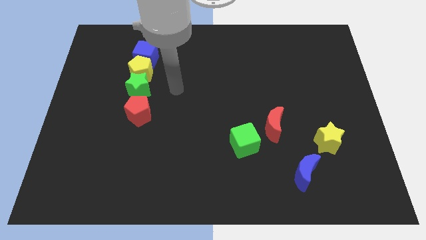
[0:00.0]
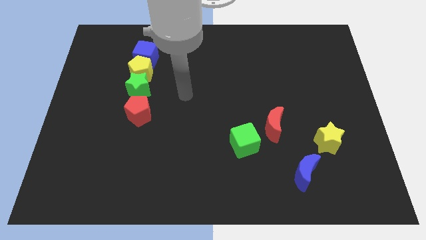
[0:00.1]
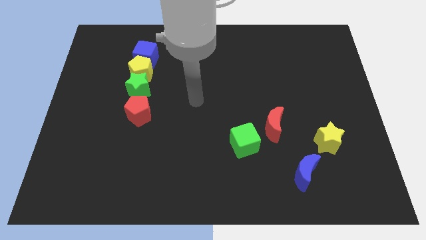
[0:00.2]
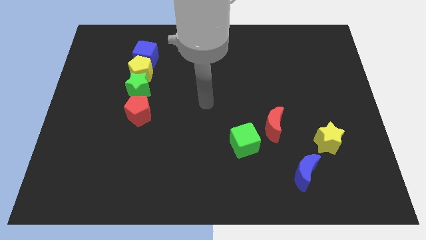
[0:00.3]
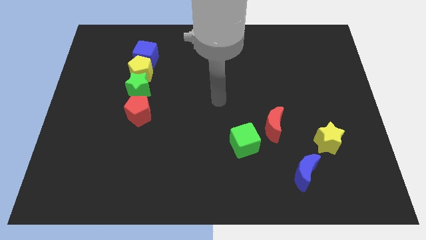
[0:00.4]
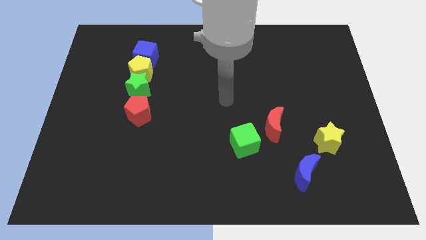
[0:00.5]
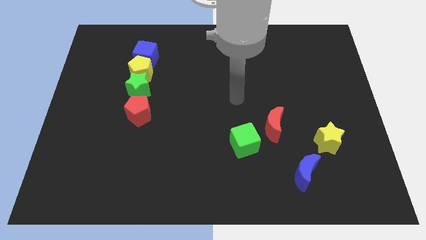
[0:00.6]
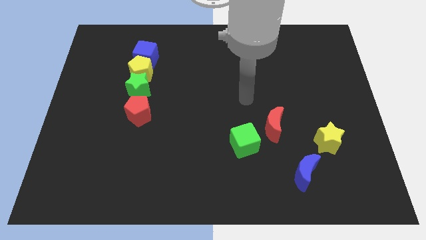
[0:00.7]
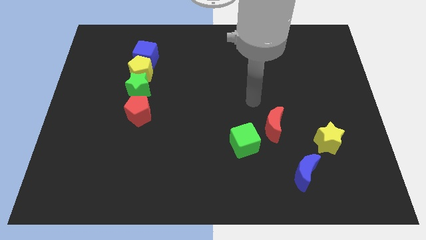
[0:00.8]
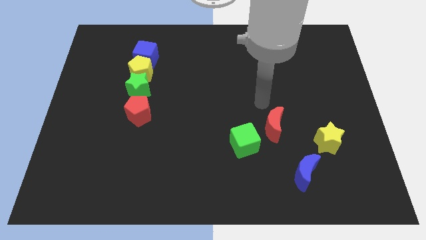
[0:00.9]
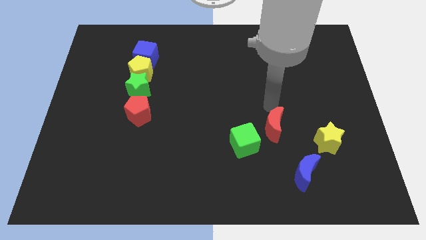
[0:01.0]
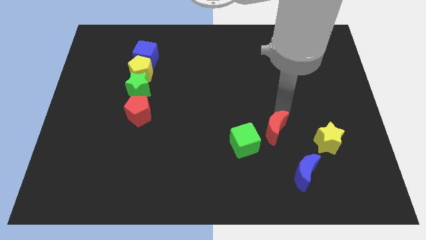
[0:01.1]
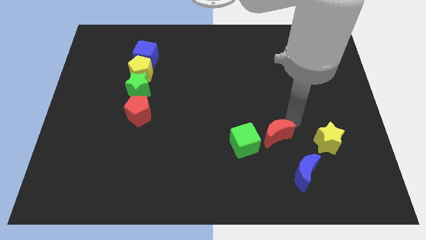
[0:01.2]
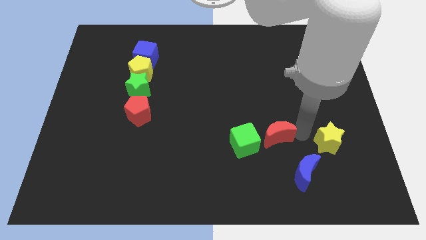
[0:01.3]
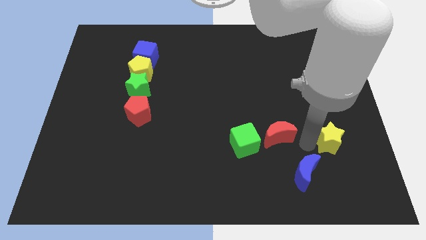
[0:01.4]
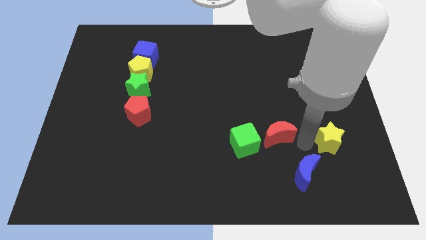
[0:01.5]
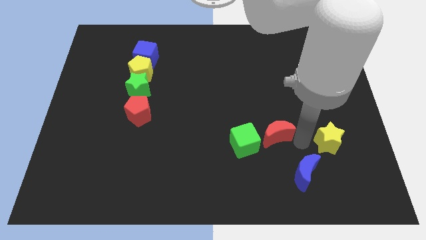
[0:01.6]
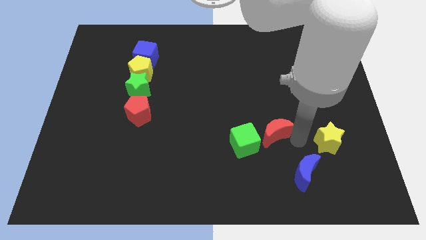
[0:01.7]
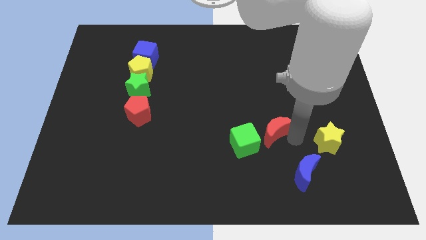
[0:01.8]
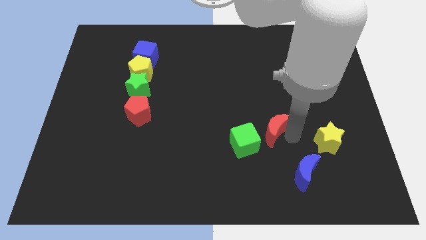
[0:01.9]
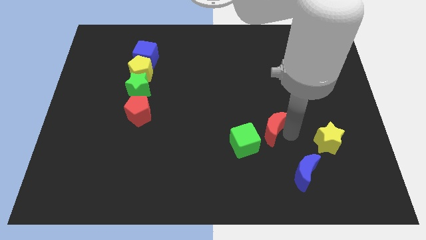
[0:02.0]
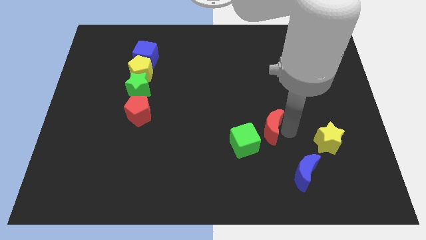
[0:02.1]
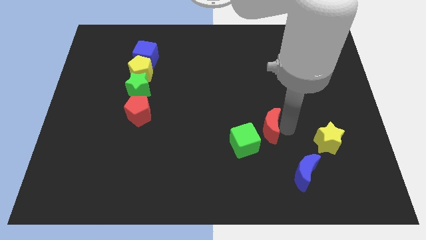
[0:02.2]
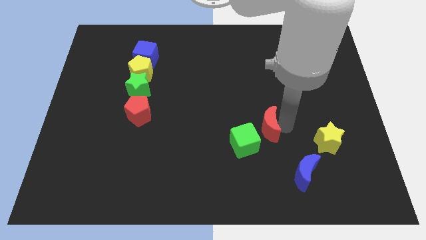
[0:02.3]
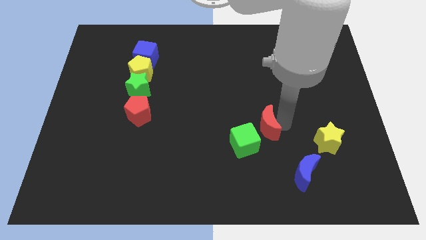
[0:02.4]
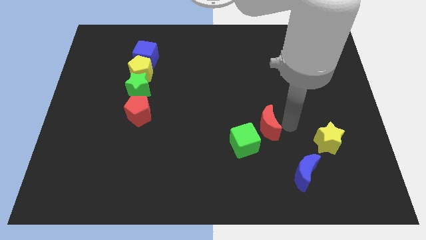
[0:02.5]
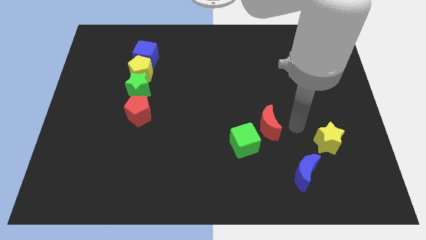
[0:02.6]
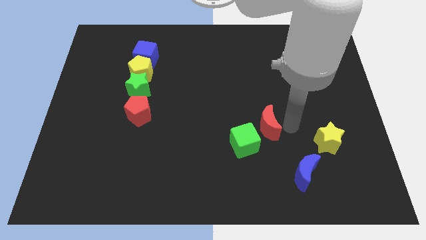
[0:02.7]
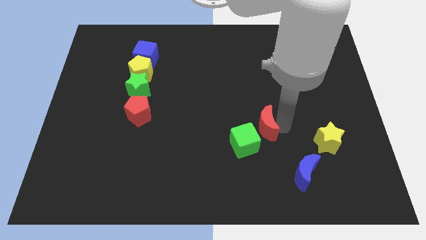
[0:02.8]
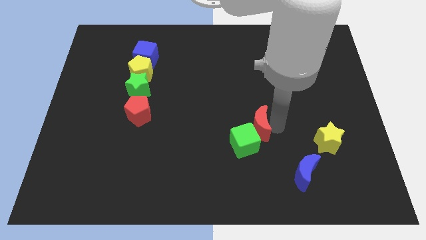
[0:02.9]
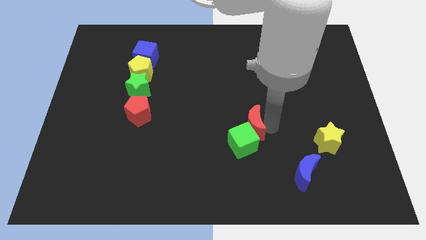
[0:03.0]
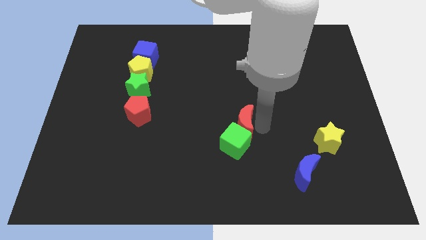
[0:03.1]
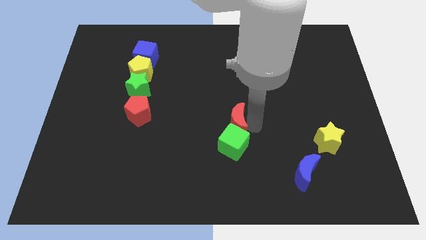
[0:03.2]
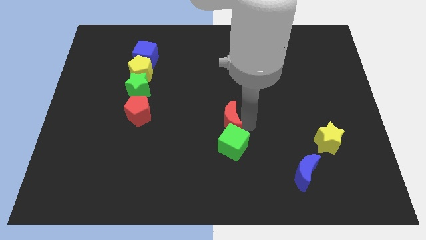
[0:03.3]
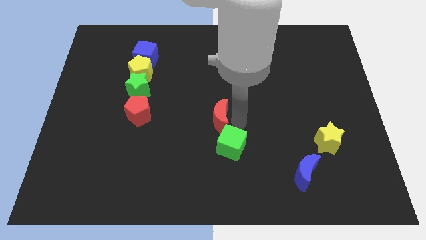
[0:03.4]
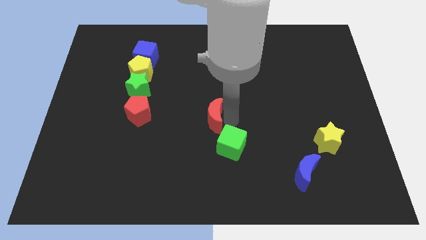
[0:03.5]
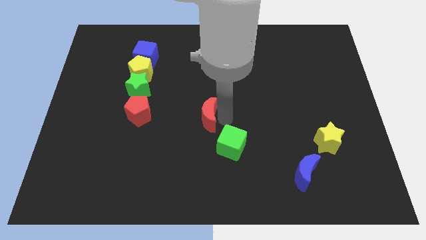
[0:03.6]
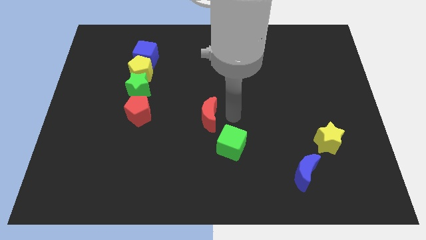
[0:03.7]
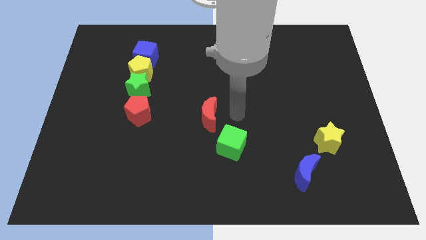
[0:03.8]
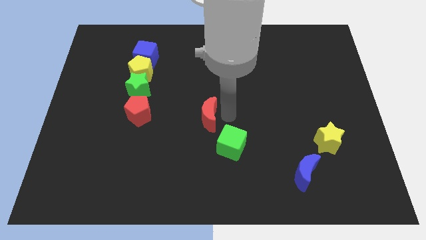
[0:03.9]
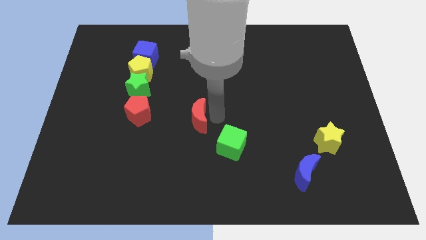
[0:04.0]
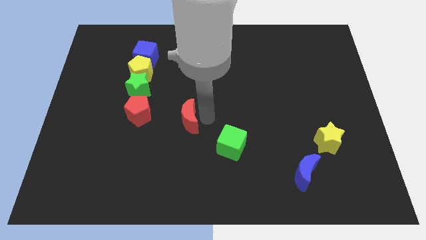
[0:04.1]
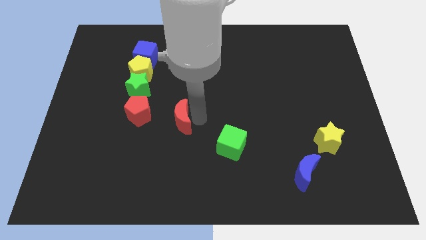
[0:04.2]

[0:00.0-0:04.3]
push the red moon left

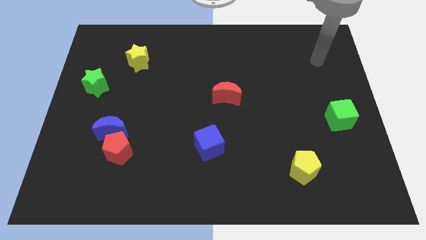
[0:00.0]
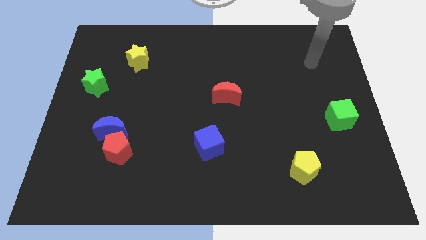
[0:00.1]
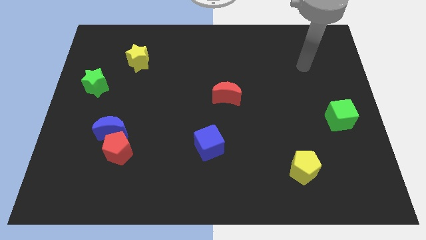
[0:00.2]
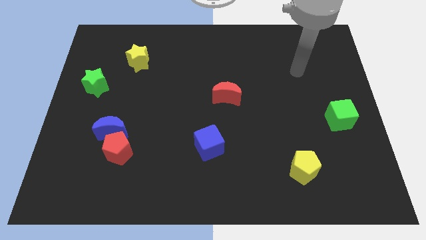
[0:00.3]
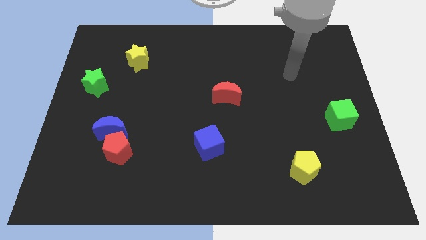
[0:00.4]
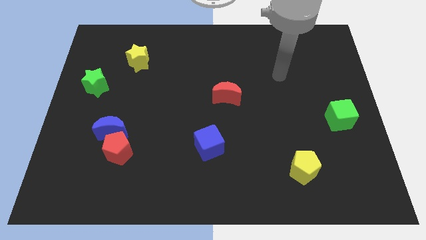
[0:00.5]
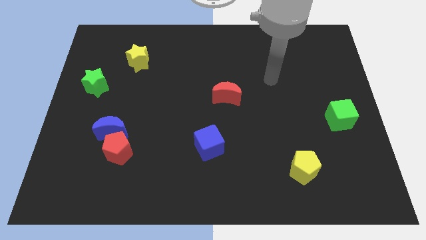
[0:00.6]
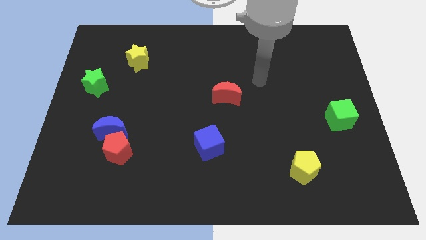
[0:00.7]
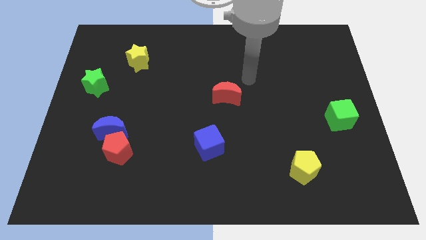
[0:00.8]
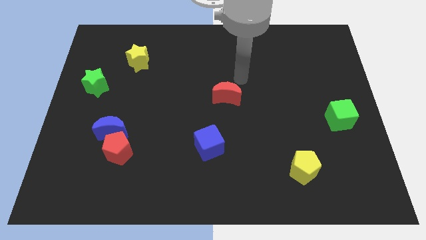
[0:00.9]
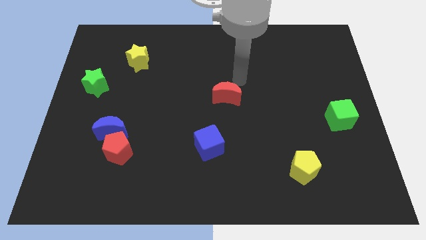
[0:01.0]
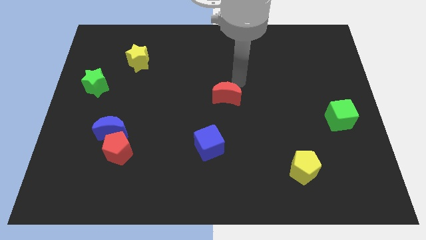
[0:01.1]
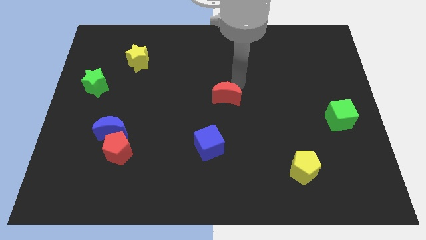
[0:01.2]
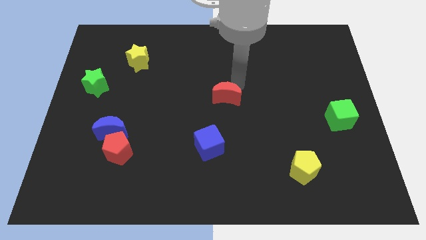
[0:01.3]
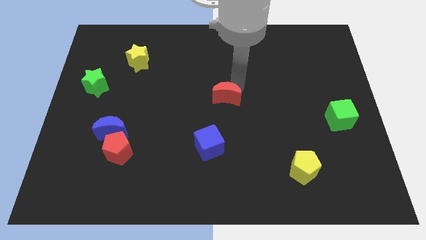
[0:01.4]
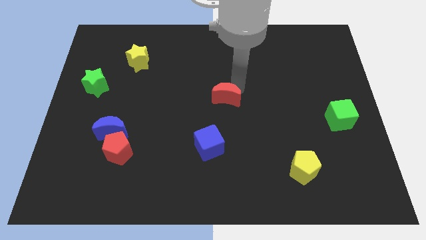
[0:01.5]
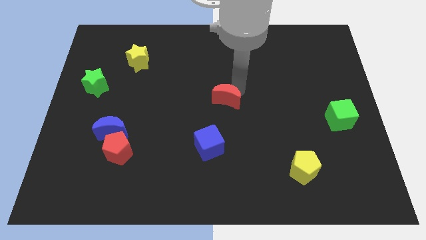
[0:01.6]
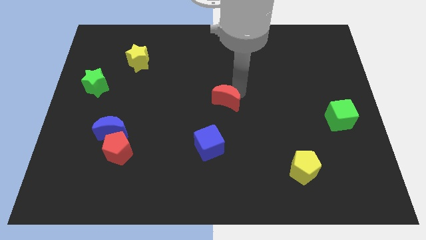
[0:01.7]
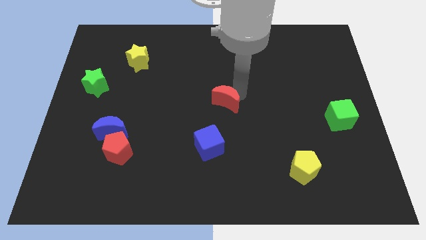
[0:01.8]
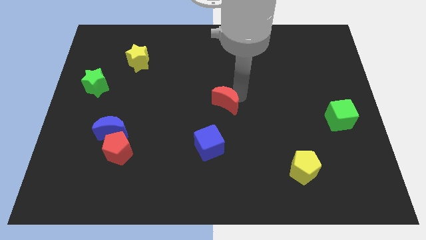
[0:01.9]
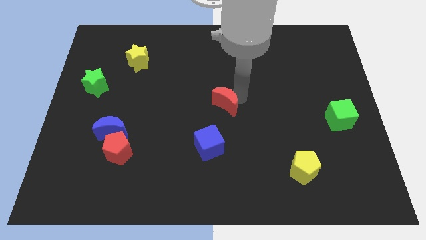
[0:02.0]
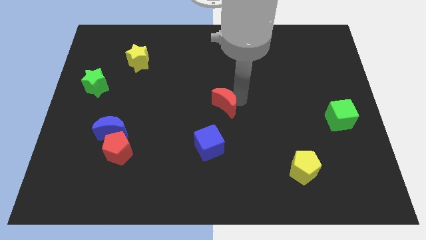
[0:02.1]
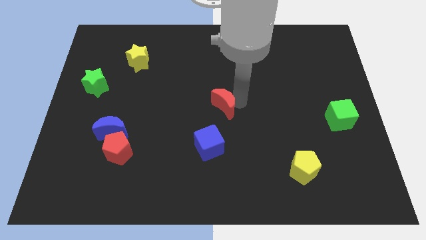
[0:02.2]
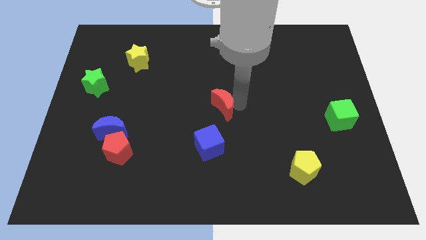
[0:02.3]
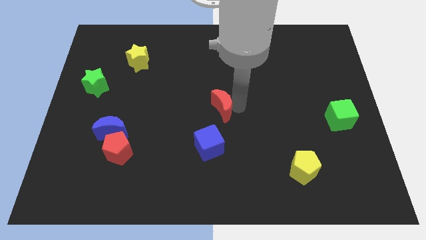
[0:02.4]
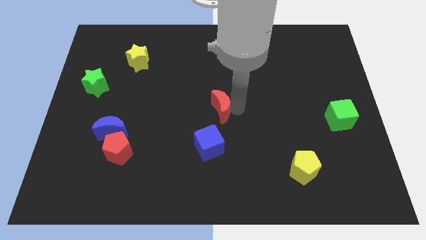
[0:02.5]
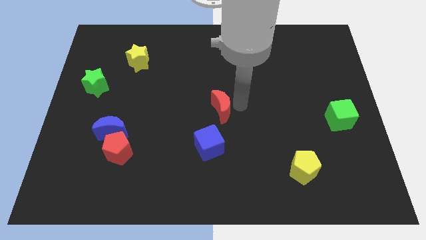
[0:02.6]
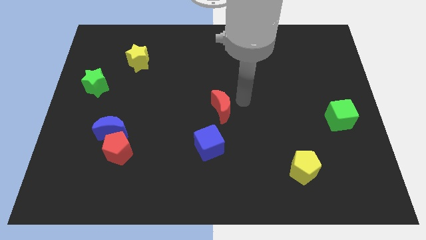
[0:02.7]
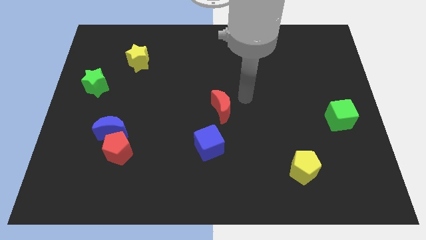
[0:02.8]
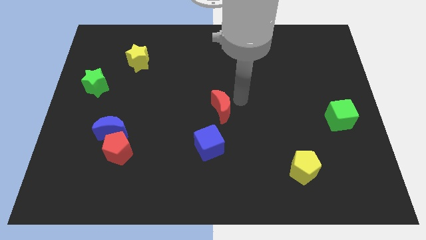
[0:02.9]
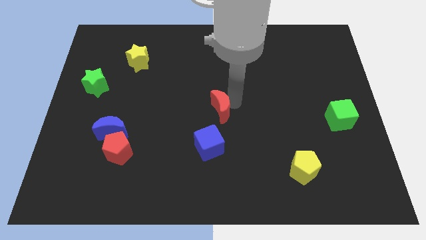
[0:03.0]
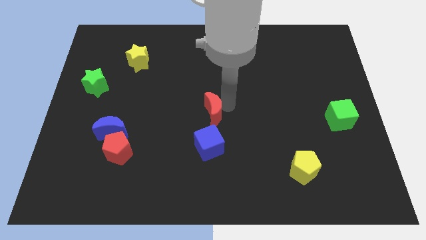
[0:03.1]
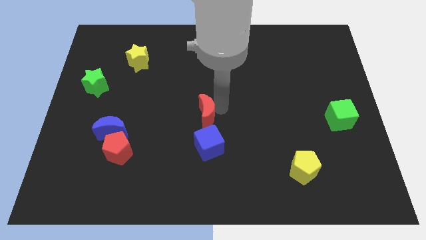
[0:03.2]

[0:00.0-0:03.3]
slightly slide the red moon down and left
